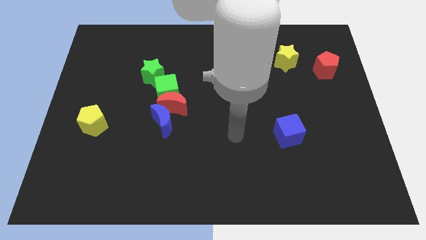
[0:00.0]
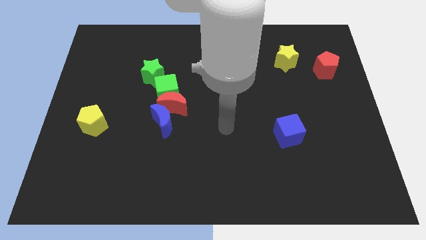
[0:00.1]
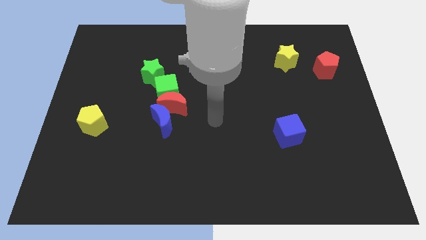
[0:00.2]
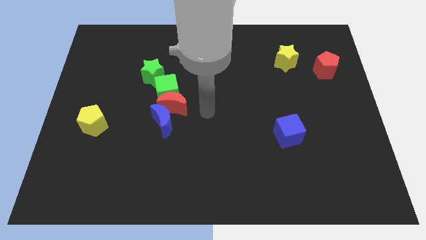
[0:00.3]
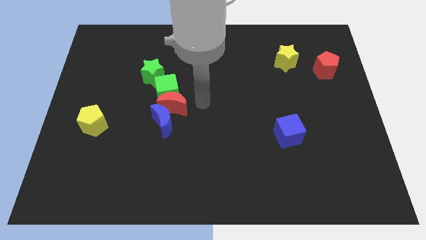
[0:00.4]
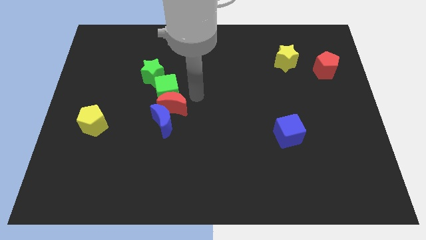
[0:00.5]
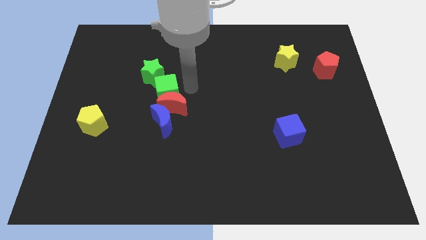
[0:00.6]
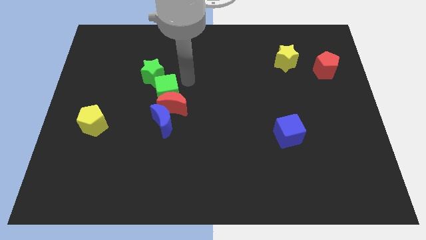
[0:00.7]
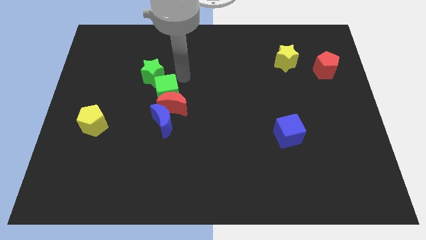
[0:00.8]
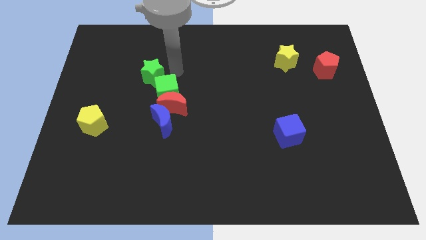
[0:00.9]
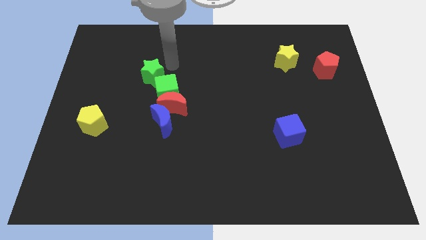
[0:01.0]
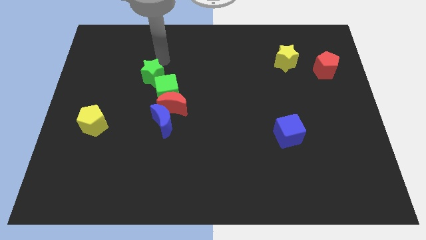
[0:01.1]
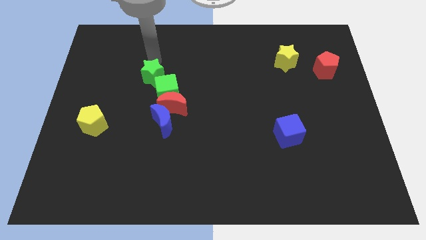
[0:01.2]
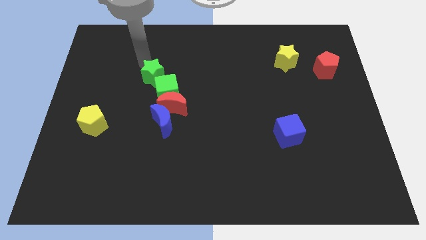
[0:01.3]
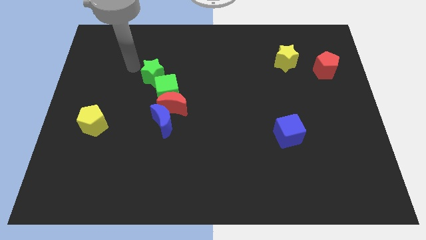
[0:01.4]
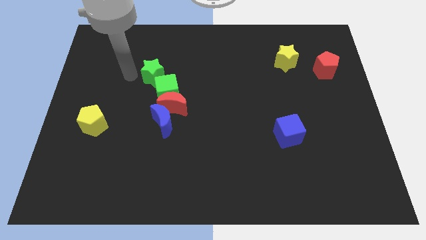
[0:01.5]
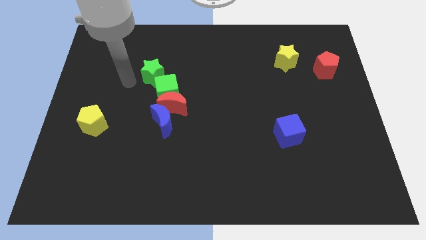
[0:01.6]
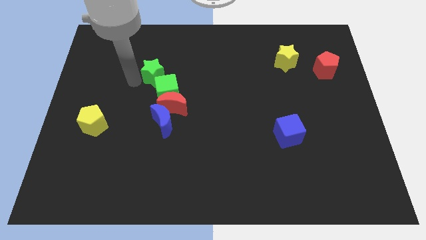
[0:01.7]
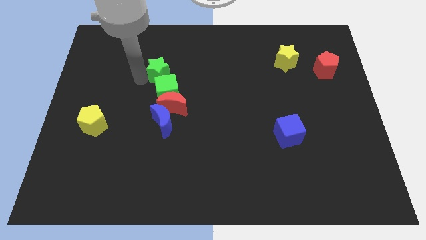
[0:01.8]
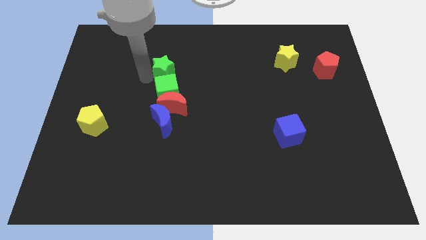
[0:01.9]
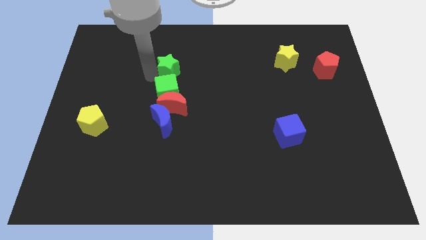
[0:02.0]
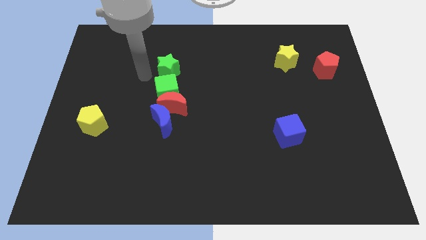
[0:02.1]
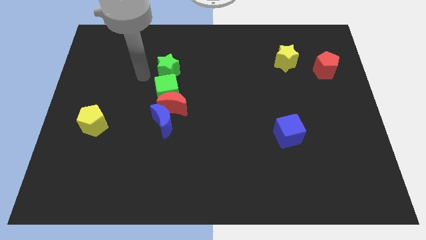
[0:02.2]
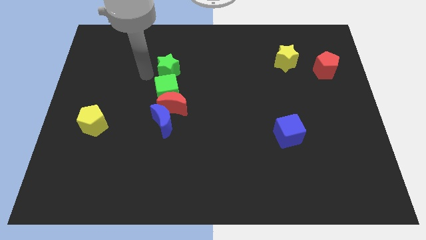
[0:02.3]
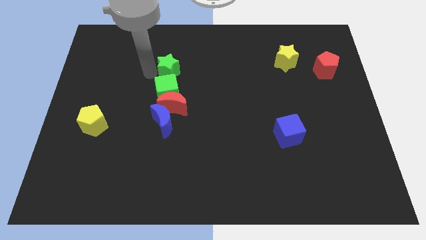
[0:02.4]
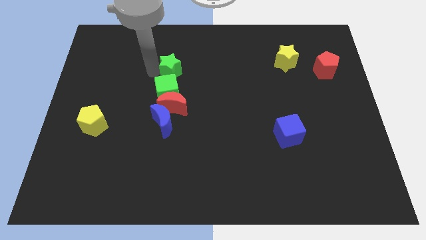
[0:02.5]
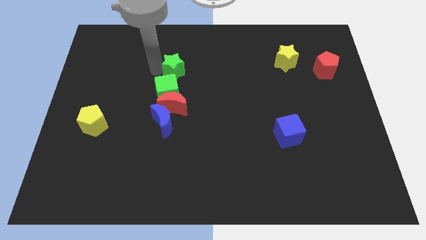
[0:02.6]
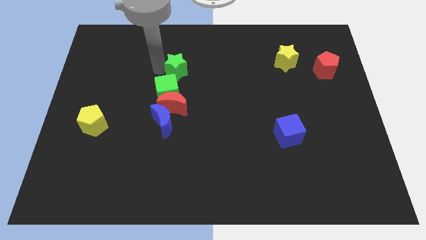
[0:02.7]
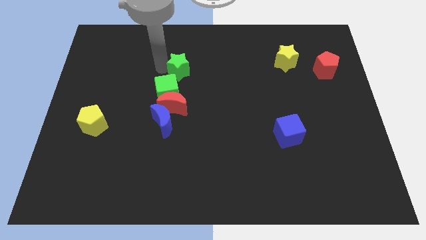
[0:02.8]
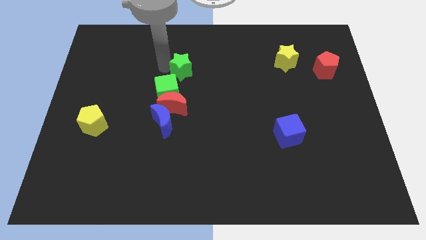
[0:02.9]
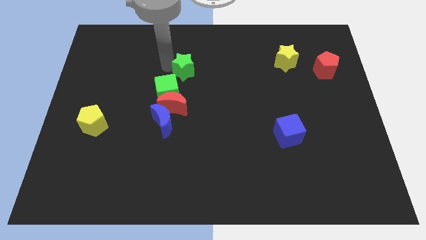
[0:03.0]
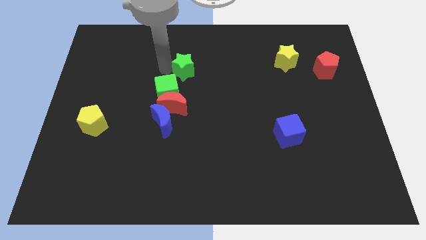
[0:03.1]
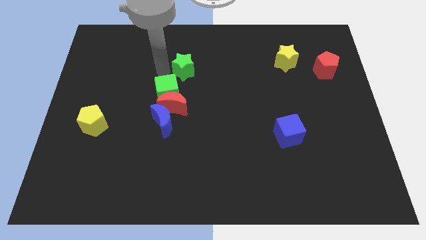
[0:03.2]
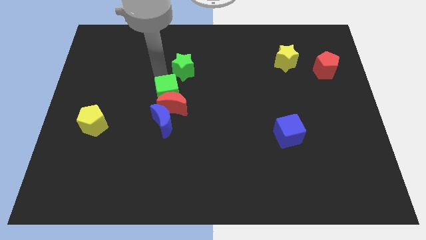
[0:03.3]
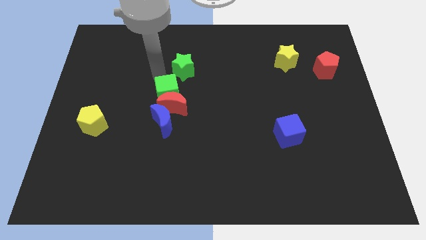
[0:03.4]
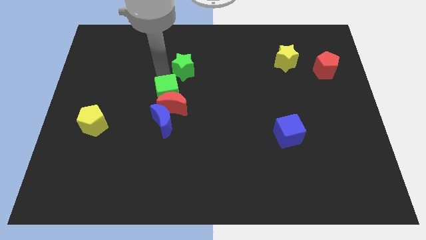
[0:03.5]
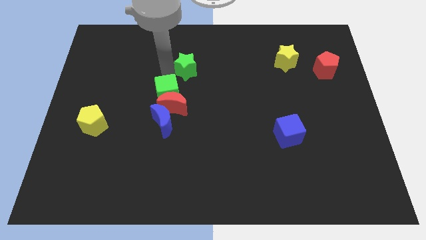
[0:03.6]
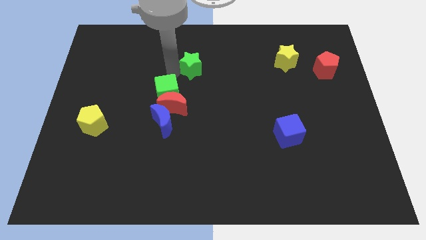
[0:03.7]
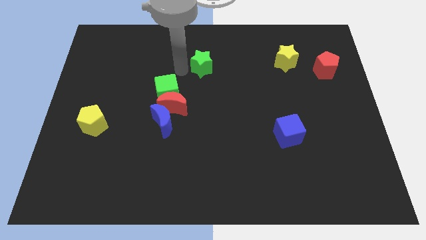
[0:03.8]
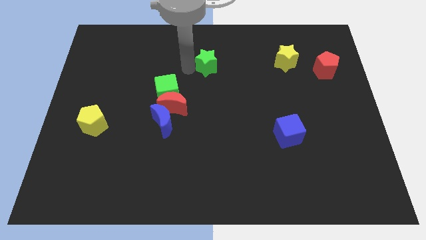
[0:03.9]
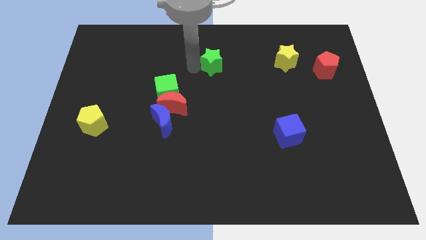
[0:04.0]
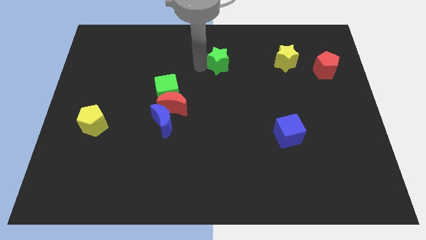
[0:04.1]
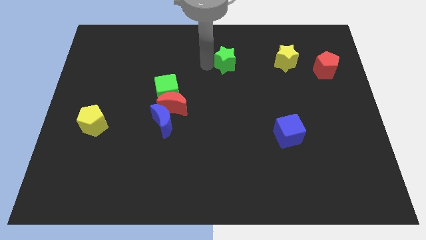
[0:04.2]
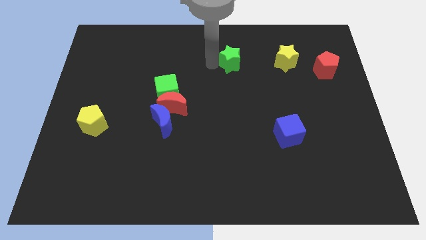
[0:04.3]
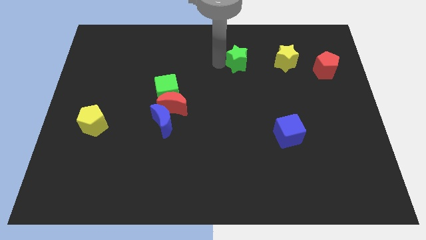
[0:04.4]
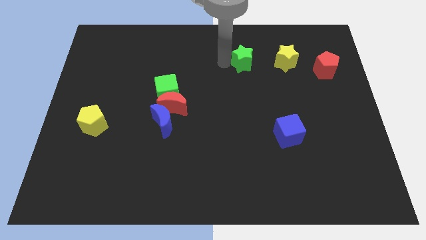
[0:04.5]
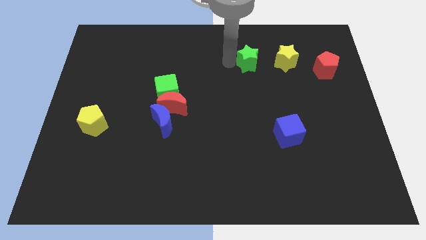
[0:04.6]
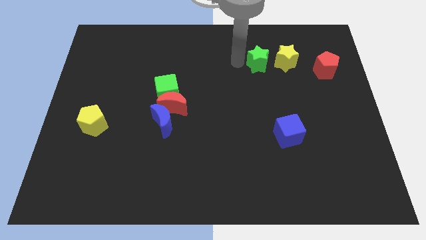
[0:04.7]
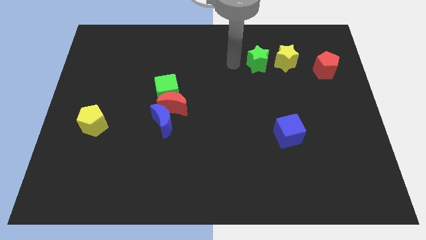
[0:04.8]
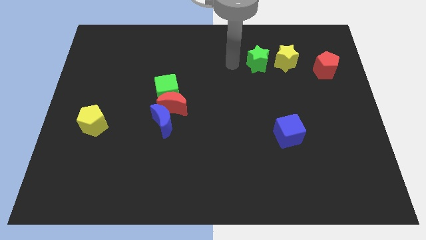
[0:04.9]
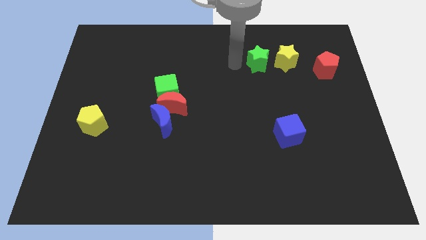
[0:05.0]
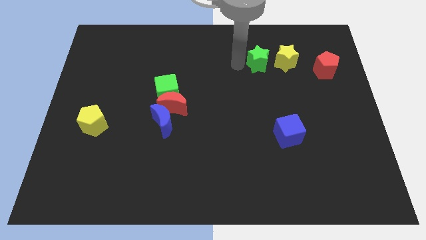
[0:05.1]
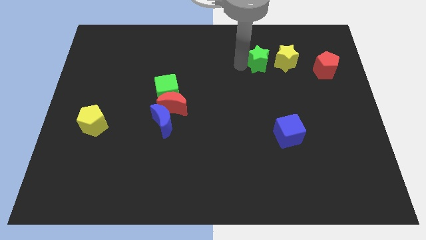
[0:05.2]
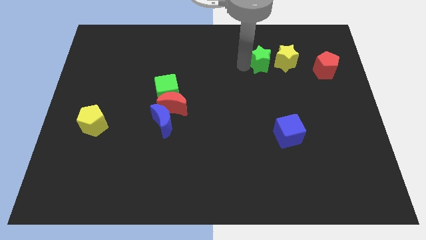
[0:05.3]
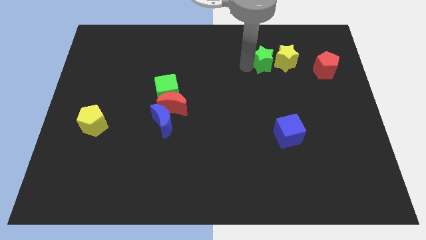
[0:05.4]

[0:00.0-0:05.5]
put the green star towards the yellow star

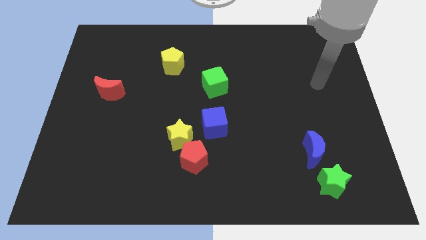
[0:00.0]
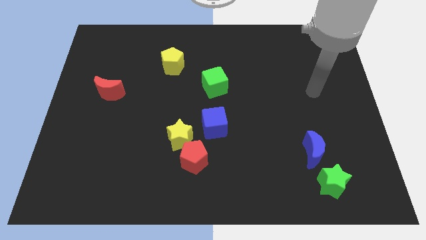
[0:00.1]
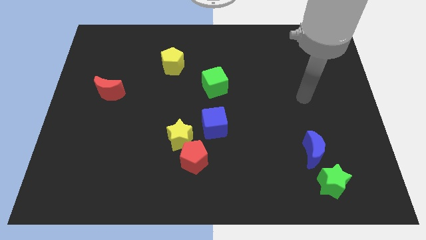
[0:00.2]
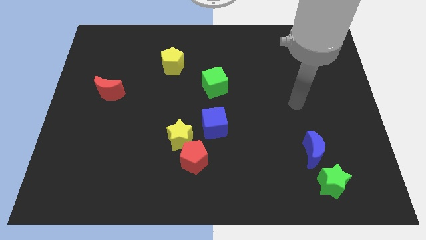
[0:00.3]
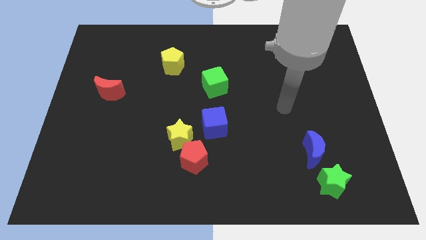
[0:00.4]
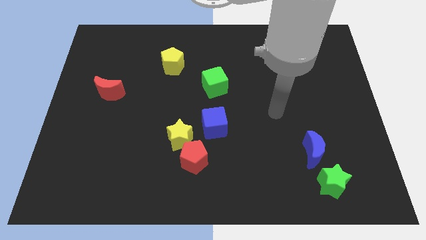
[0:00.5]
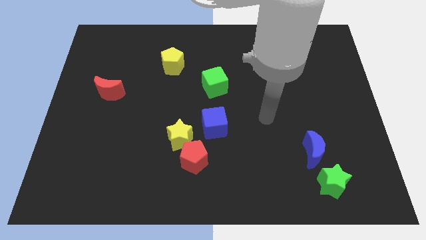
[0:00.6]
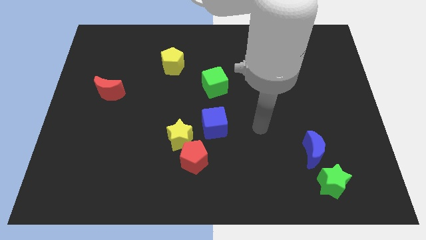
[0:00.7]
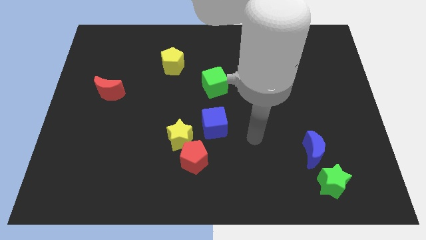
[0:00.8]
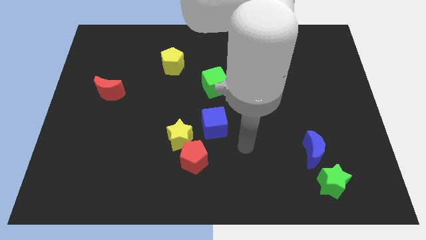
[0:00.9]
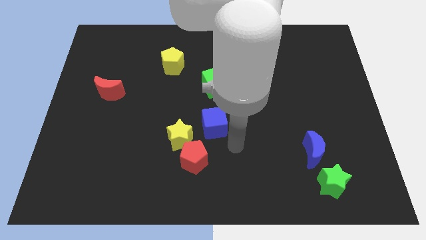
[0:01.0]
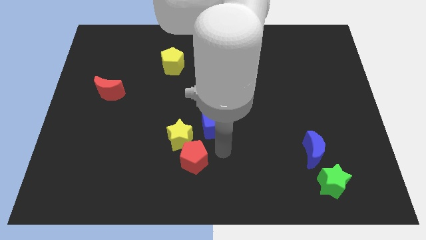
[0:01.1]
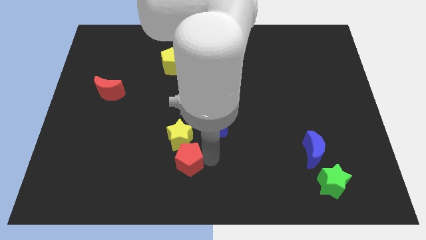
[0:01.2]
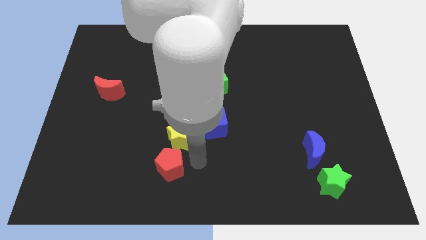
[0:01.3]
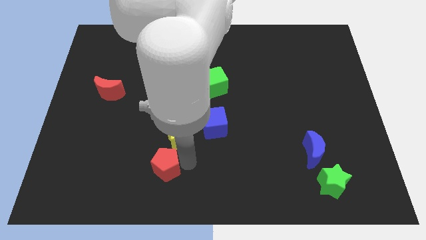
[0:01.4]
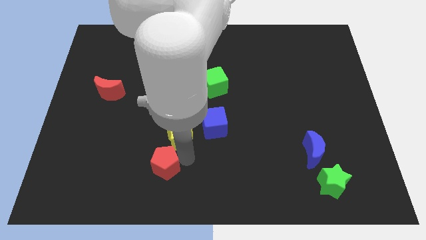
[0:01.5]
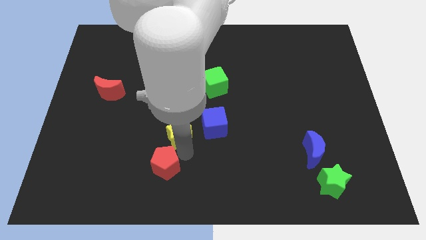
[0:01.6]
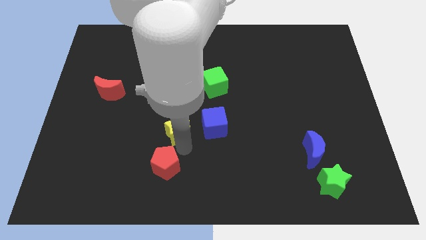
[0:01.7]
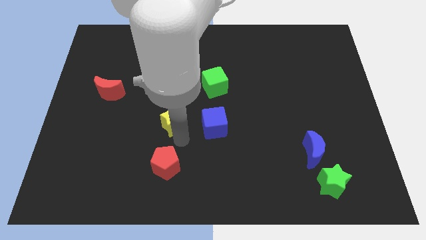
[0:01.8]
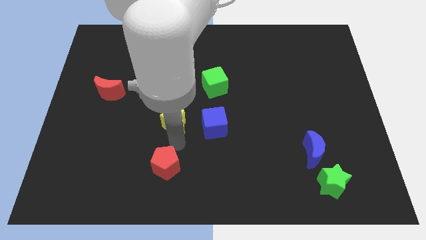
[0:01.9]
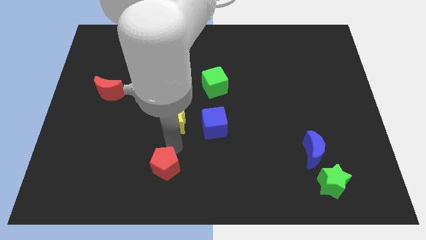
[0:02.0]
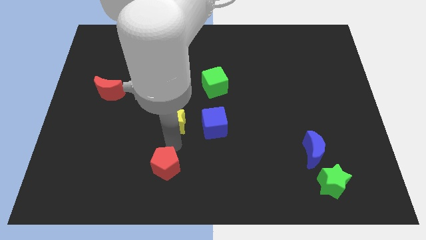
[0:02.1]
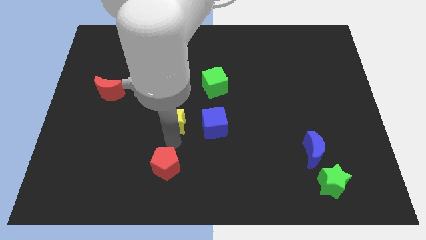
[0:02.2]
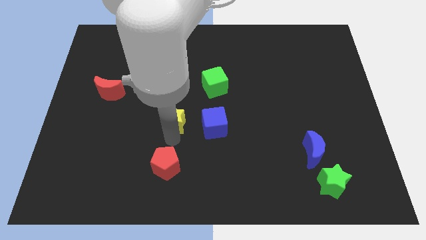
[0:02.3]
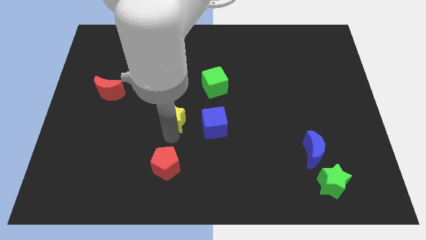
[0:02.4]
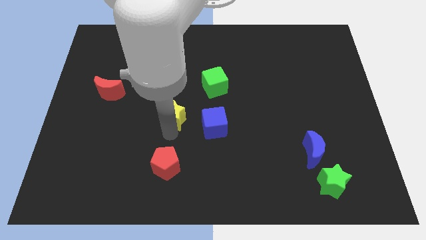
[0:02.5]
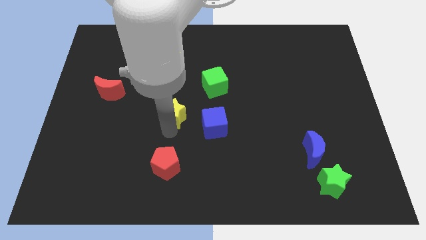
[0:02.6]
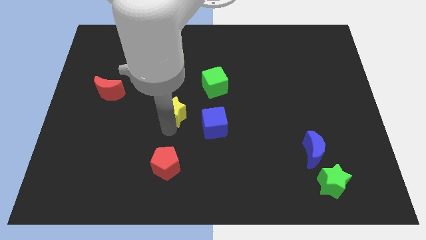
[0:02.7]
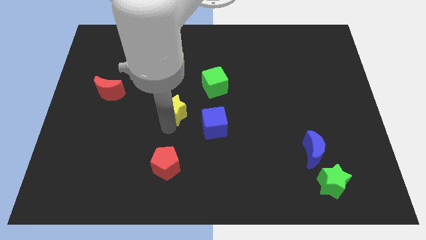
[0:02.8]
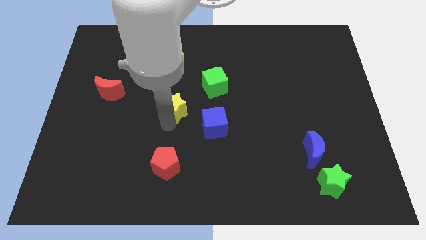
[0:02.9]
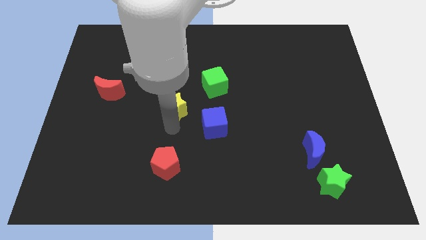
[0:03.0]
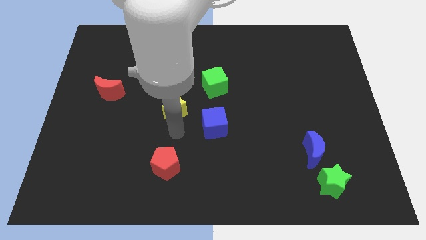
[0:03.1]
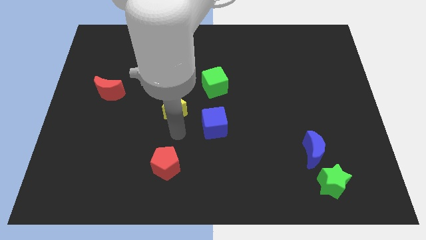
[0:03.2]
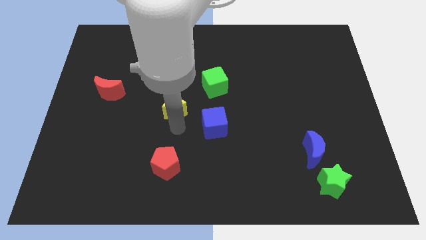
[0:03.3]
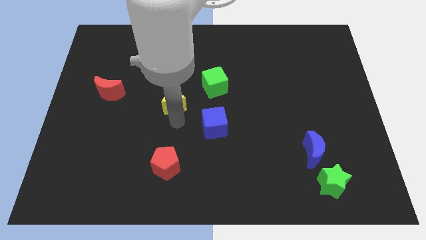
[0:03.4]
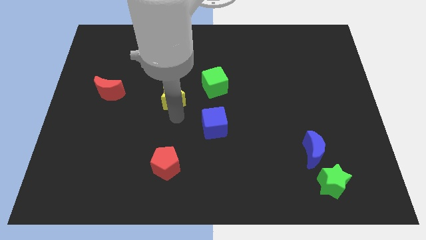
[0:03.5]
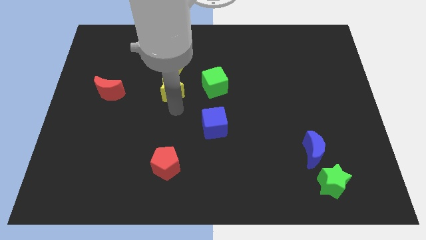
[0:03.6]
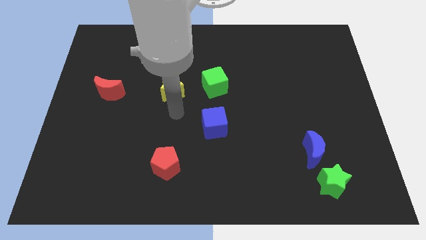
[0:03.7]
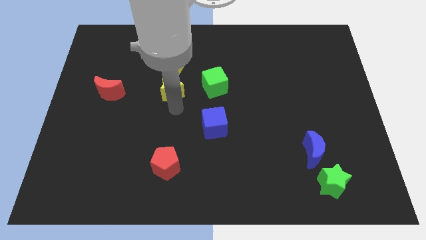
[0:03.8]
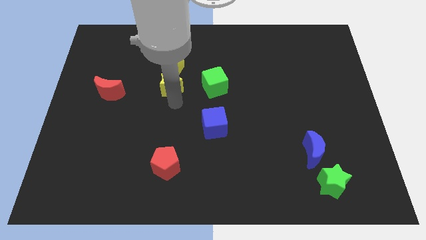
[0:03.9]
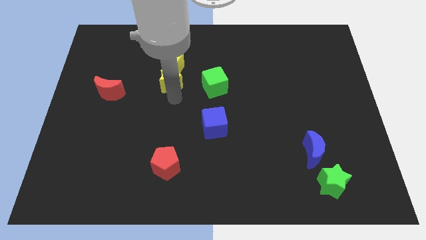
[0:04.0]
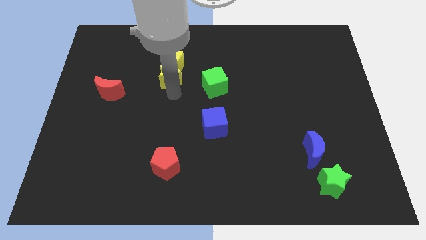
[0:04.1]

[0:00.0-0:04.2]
slide the yellow star towards the yellow pentagon
